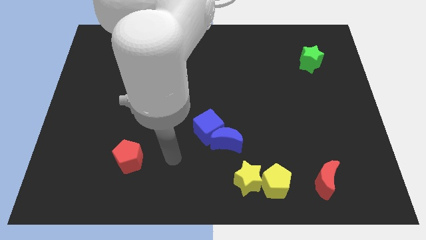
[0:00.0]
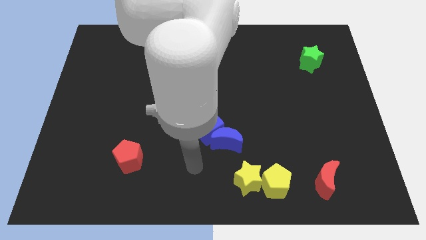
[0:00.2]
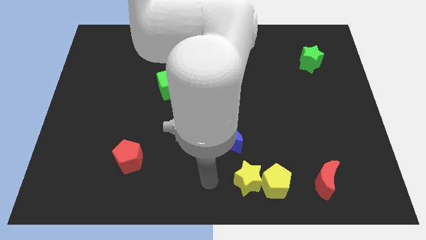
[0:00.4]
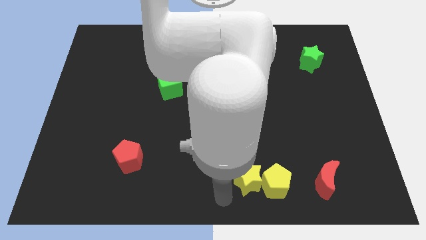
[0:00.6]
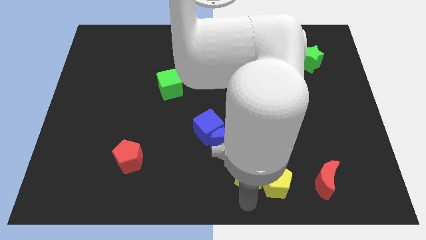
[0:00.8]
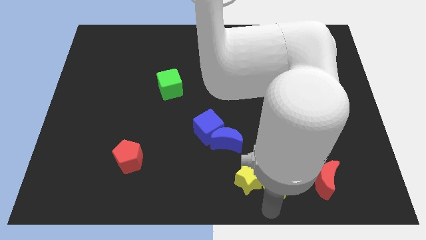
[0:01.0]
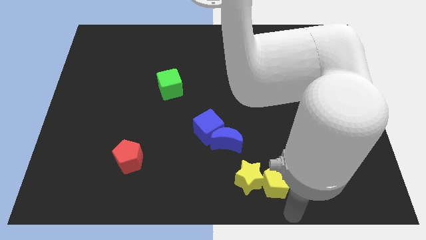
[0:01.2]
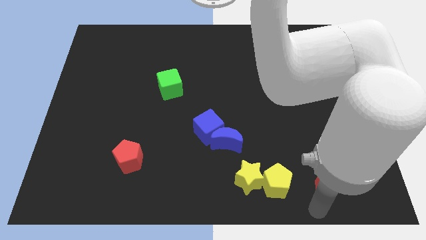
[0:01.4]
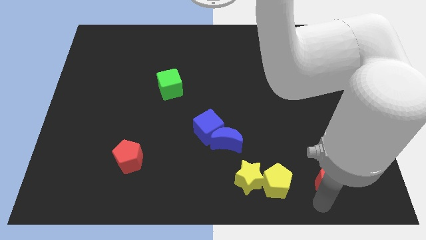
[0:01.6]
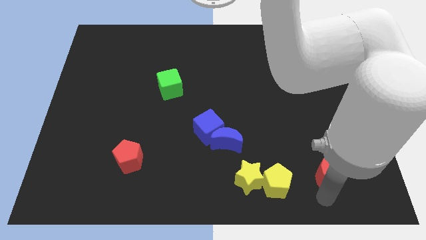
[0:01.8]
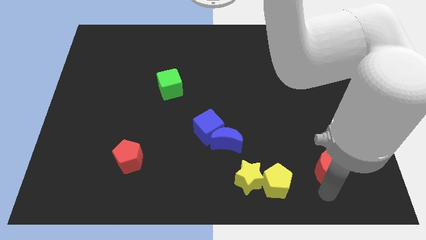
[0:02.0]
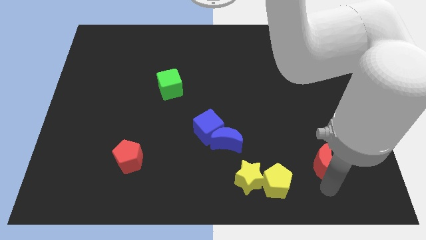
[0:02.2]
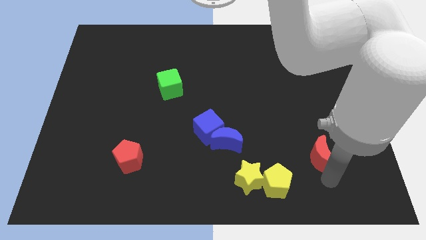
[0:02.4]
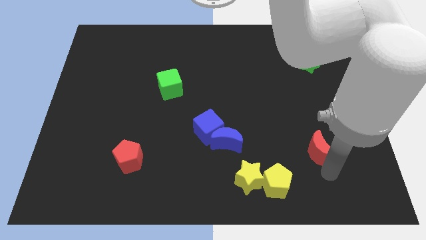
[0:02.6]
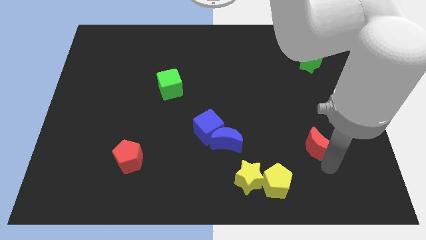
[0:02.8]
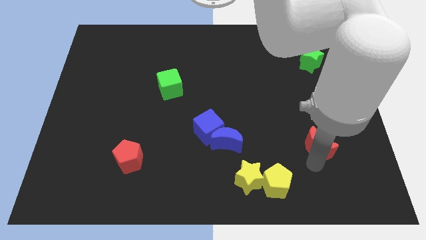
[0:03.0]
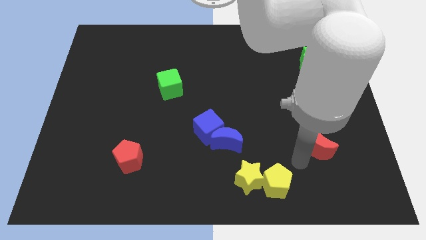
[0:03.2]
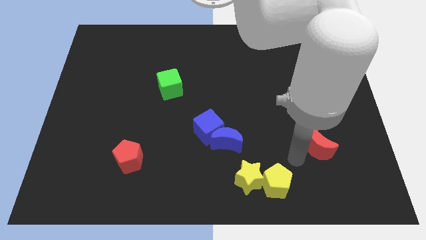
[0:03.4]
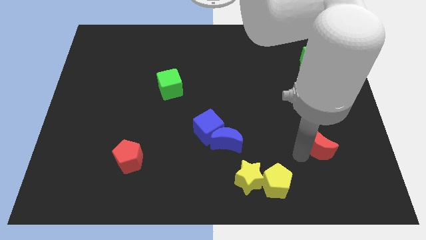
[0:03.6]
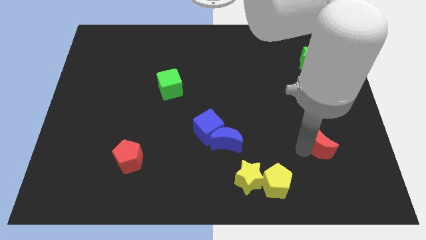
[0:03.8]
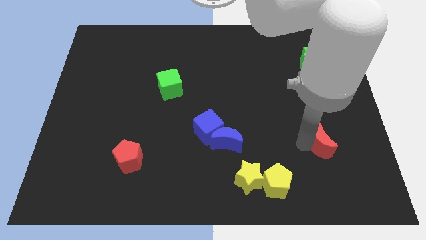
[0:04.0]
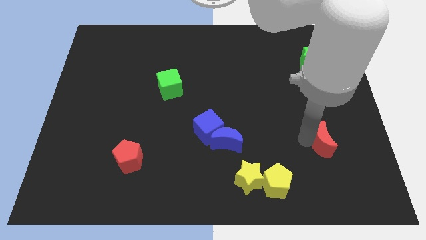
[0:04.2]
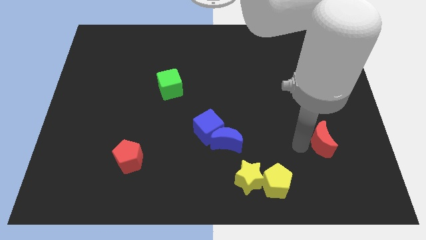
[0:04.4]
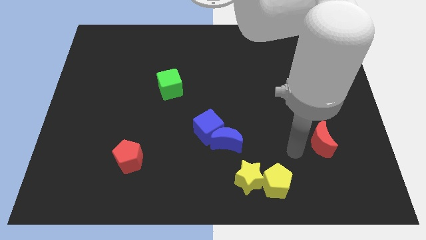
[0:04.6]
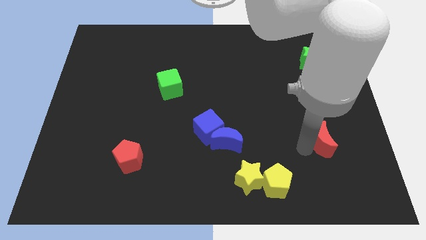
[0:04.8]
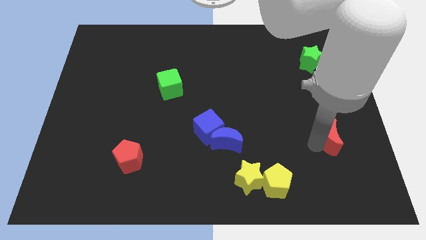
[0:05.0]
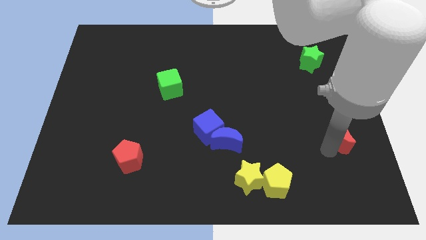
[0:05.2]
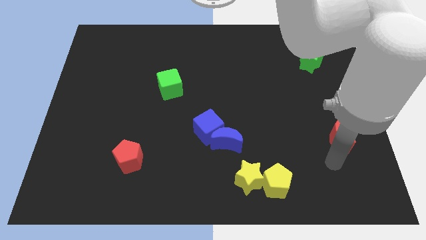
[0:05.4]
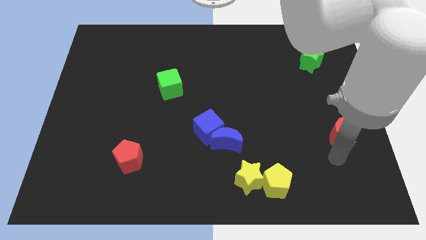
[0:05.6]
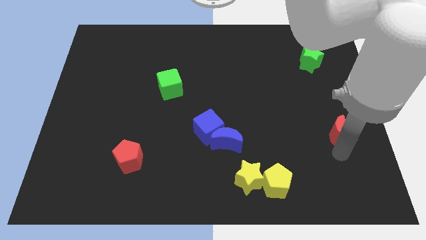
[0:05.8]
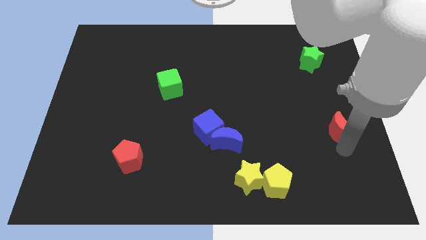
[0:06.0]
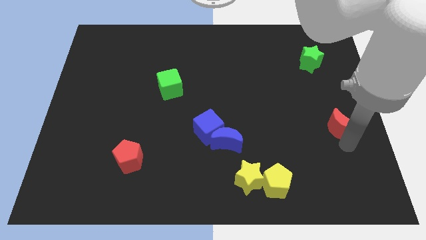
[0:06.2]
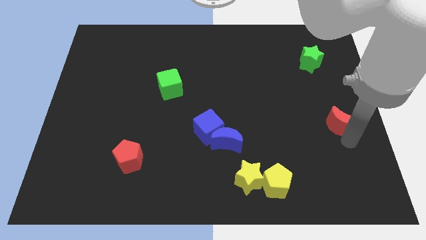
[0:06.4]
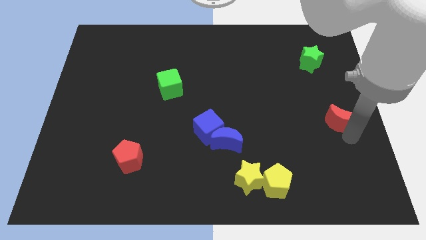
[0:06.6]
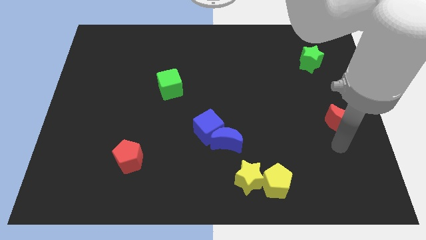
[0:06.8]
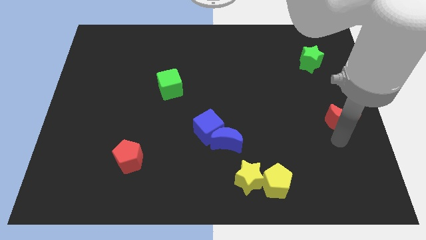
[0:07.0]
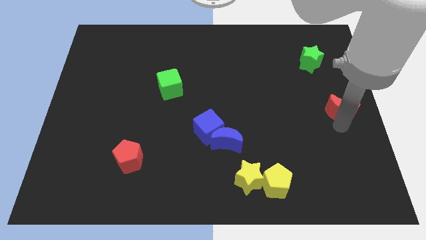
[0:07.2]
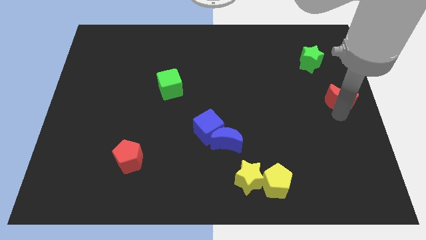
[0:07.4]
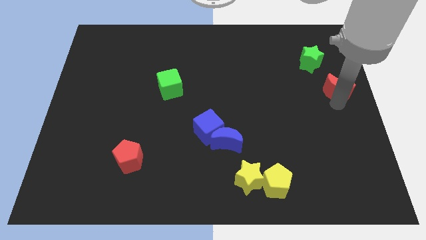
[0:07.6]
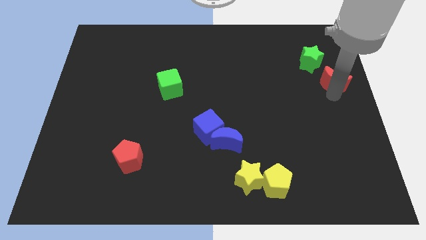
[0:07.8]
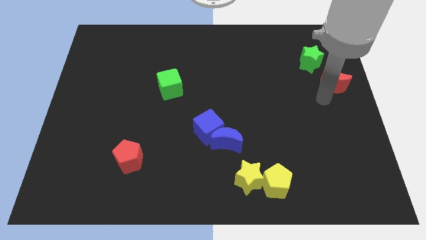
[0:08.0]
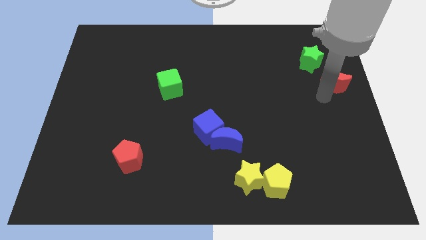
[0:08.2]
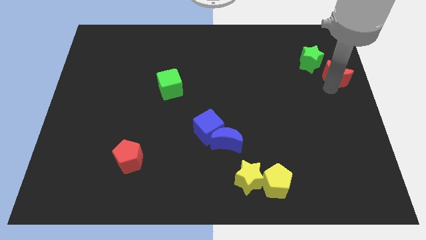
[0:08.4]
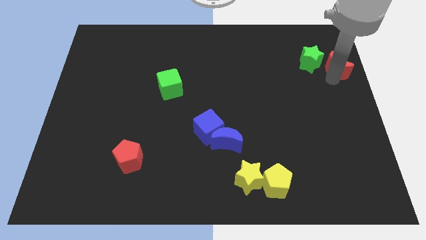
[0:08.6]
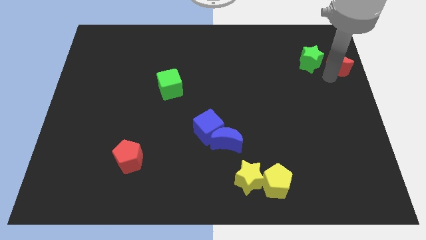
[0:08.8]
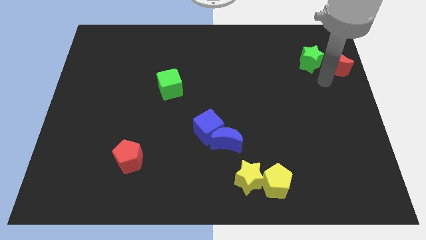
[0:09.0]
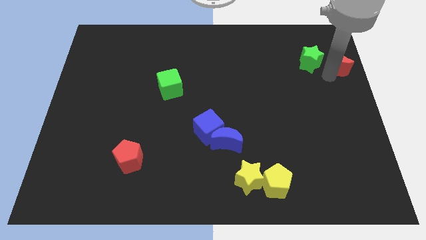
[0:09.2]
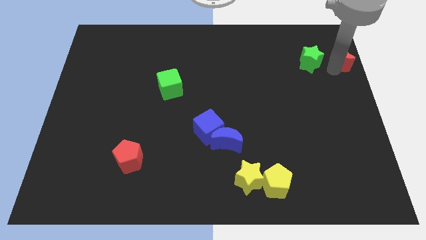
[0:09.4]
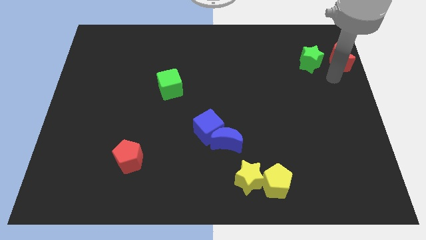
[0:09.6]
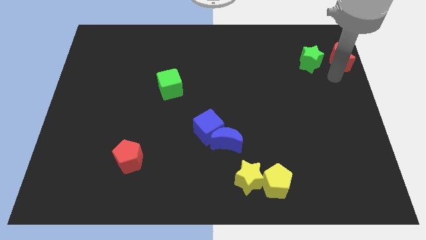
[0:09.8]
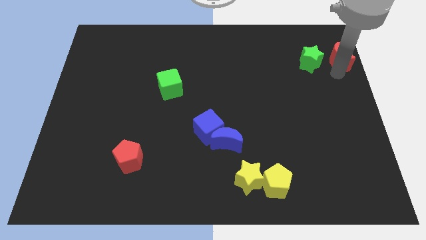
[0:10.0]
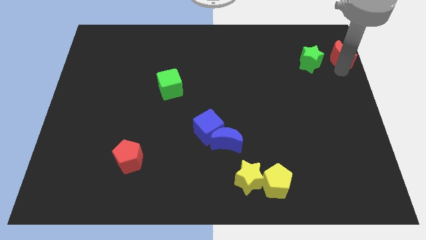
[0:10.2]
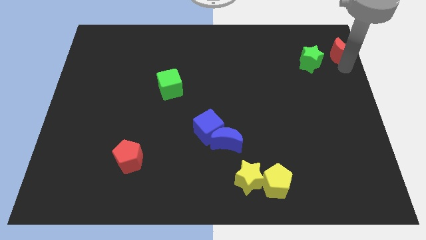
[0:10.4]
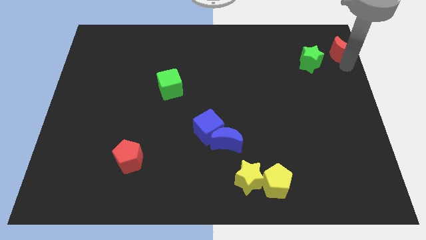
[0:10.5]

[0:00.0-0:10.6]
slide the red moon to the top right of the board

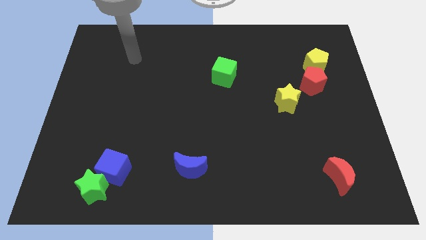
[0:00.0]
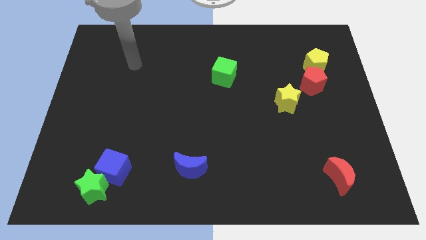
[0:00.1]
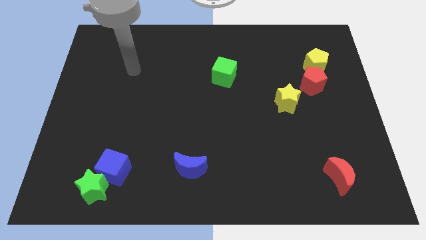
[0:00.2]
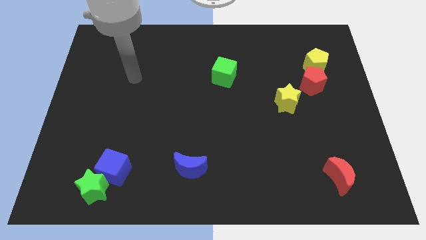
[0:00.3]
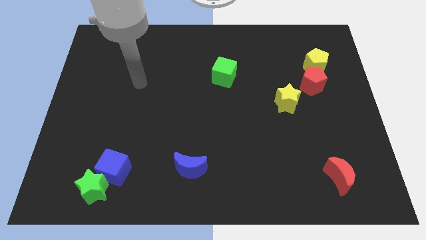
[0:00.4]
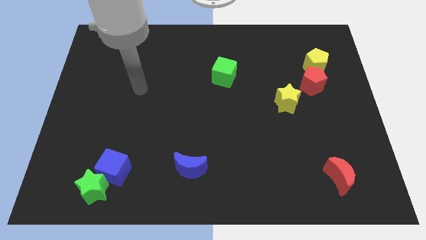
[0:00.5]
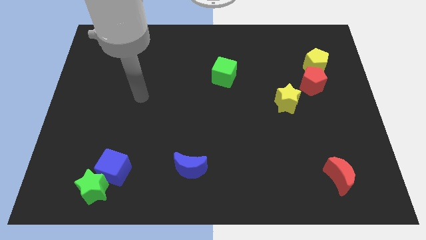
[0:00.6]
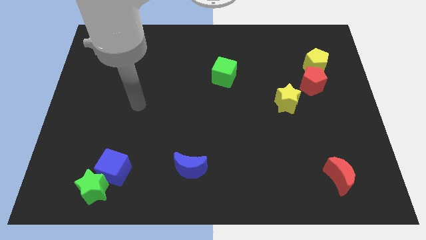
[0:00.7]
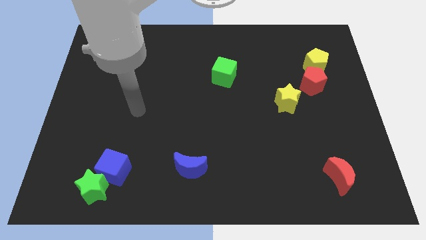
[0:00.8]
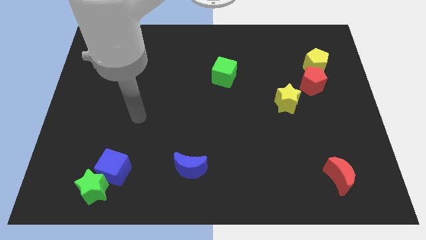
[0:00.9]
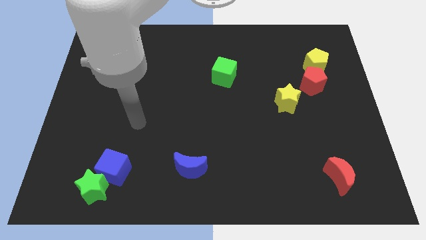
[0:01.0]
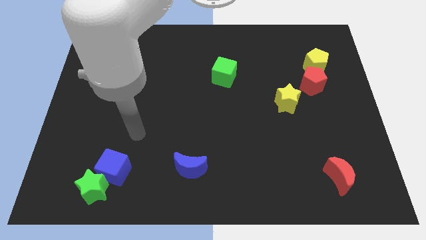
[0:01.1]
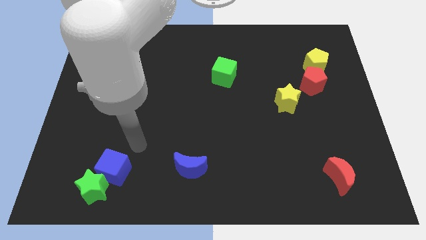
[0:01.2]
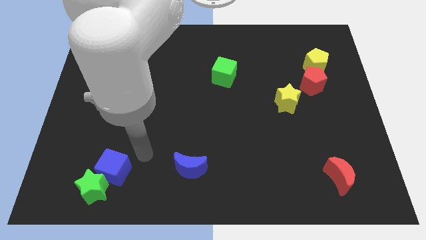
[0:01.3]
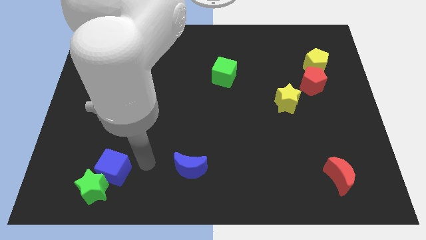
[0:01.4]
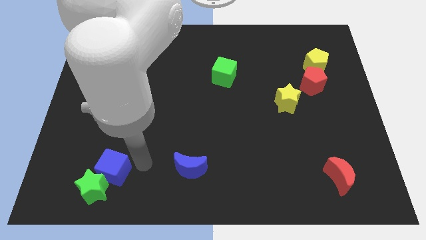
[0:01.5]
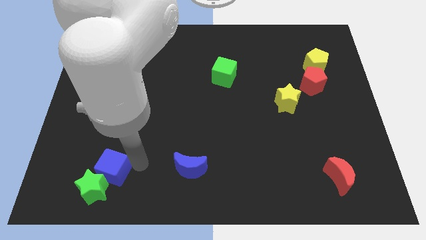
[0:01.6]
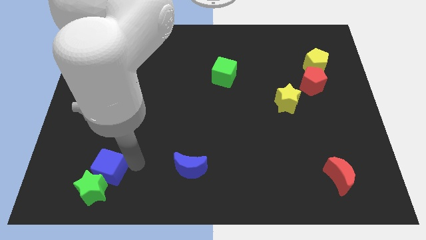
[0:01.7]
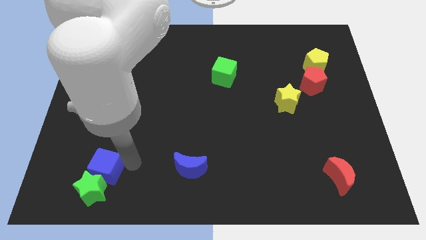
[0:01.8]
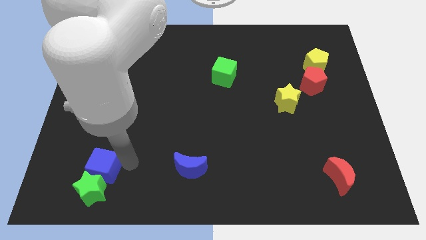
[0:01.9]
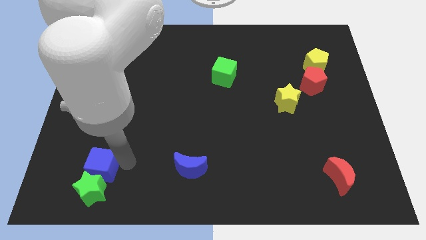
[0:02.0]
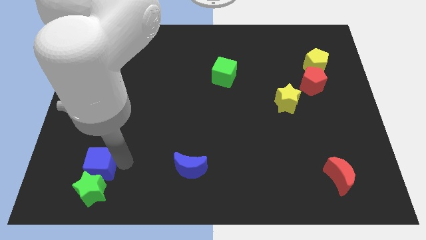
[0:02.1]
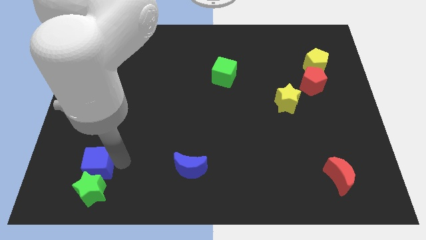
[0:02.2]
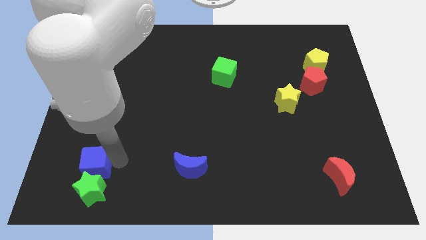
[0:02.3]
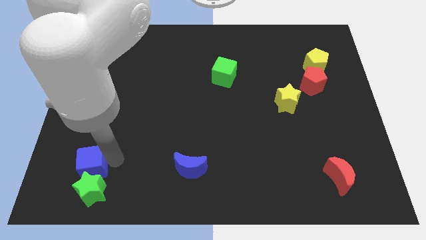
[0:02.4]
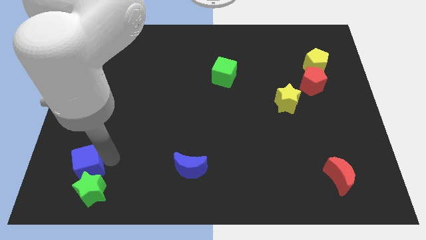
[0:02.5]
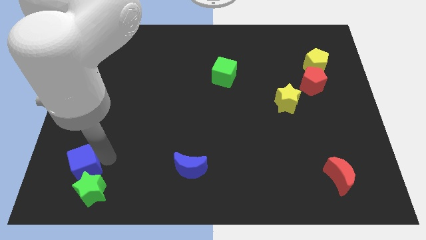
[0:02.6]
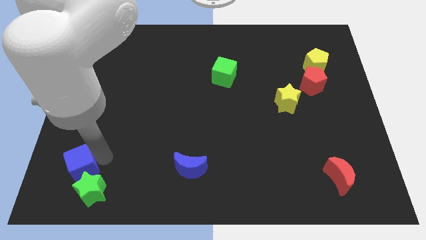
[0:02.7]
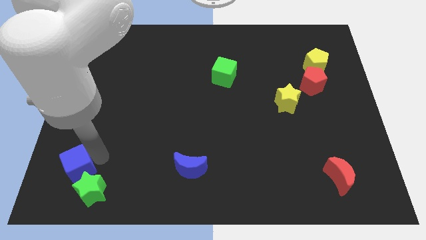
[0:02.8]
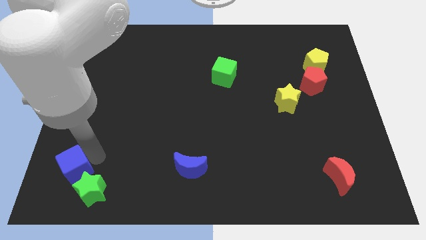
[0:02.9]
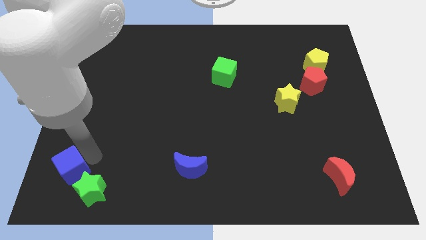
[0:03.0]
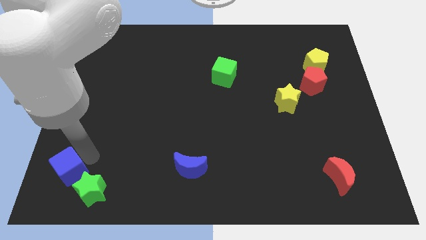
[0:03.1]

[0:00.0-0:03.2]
move the blue cube to the lower left corner
